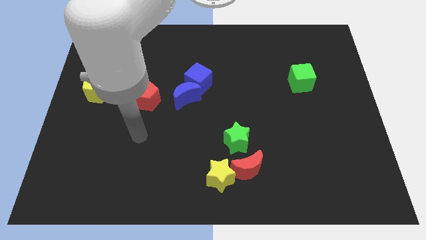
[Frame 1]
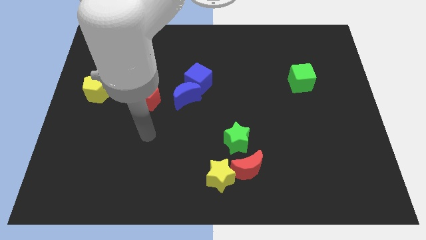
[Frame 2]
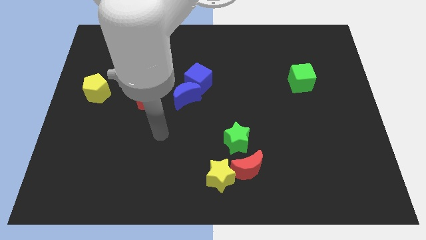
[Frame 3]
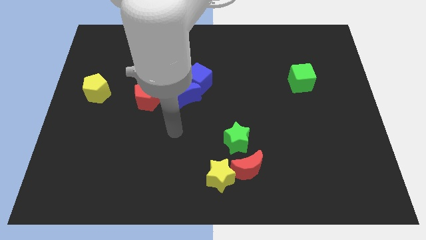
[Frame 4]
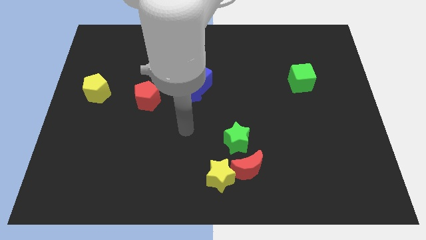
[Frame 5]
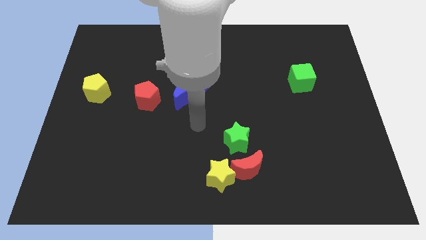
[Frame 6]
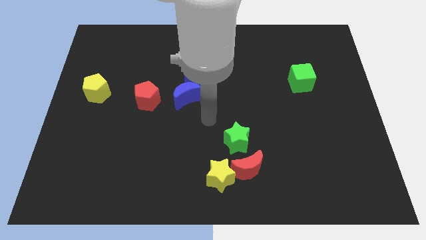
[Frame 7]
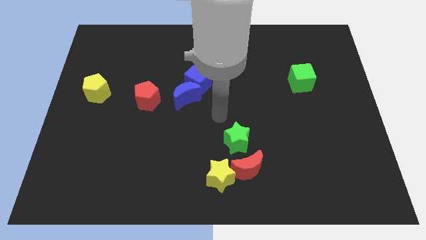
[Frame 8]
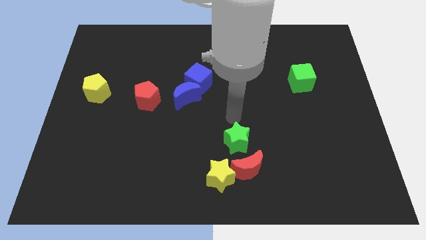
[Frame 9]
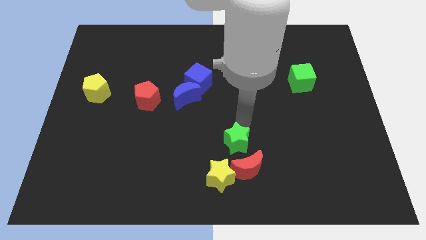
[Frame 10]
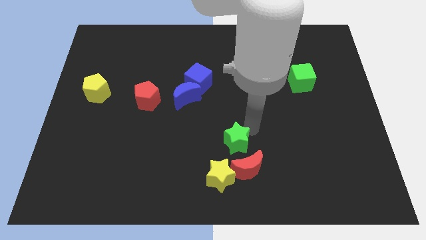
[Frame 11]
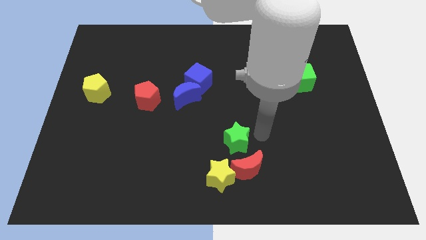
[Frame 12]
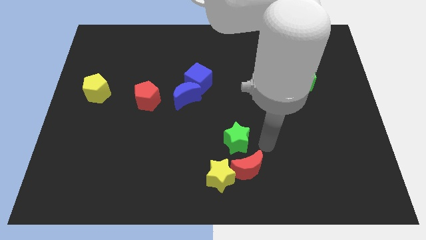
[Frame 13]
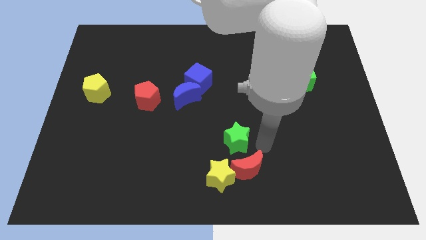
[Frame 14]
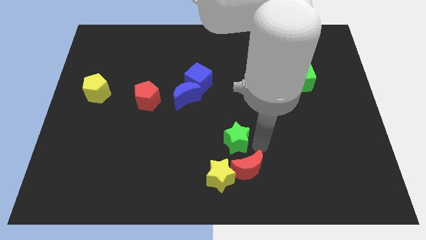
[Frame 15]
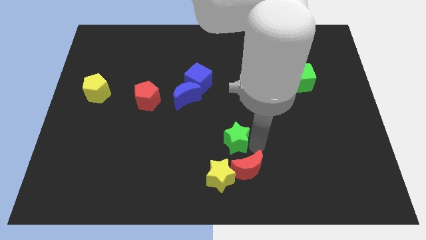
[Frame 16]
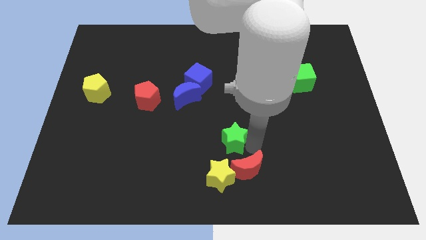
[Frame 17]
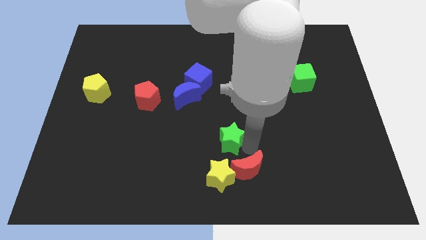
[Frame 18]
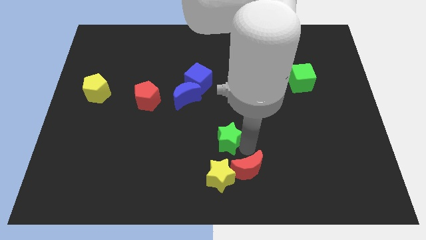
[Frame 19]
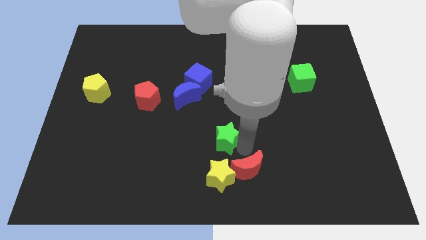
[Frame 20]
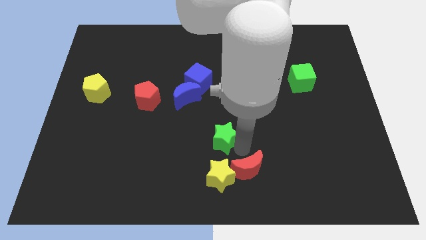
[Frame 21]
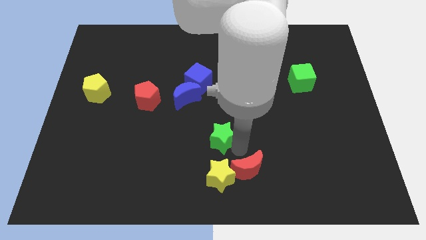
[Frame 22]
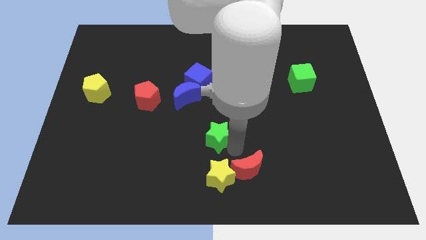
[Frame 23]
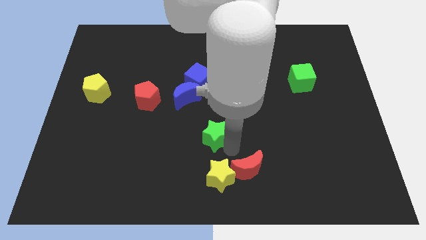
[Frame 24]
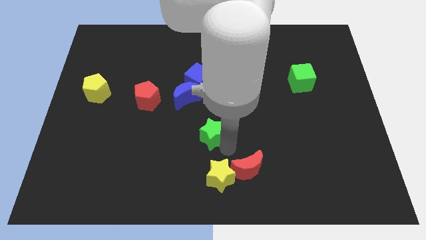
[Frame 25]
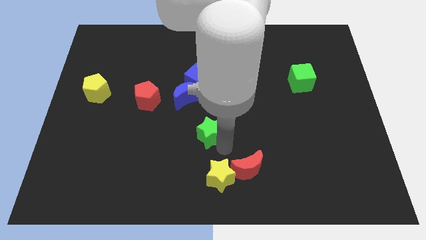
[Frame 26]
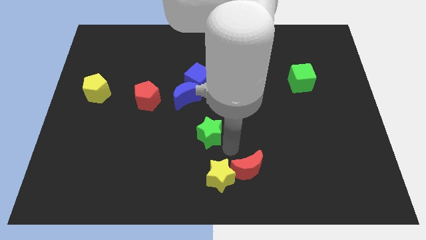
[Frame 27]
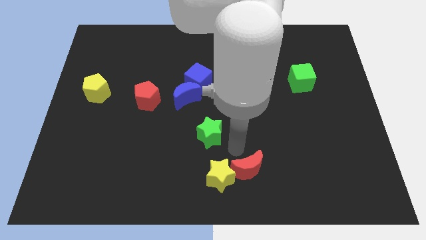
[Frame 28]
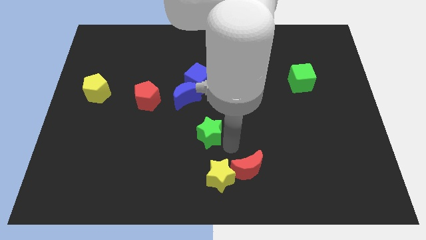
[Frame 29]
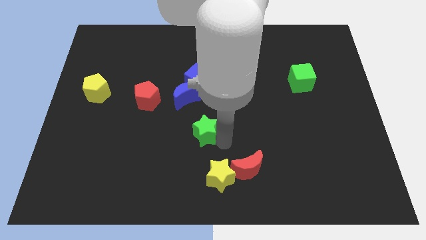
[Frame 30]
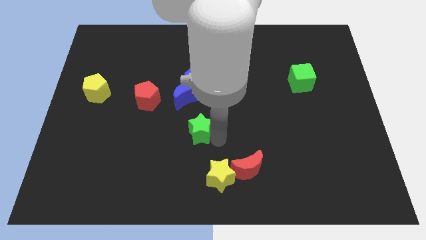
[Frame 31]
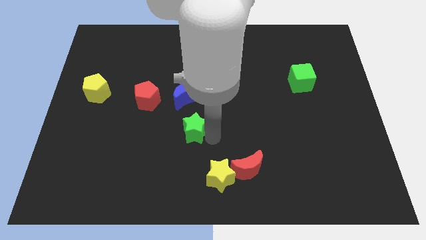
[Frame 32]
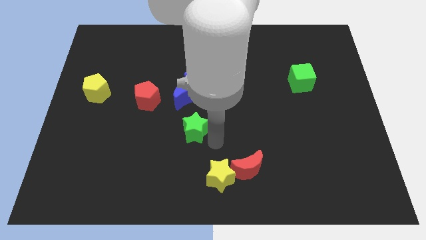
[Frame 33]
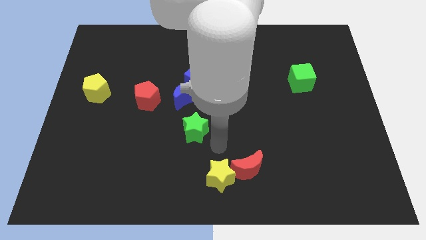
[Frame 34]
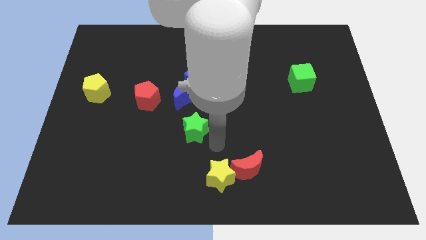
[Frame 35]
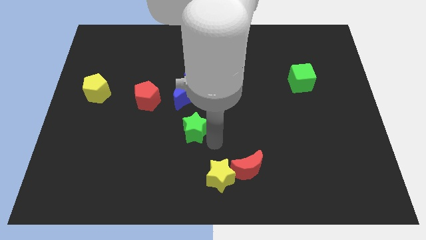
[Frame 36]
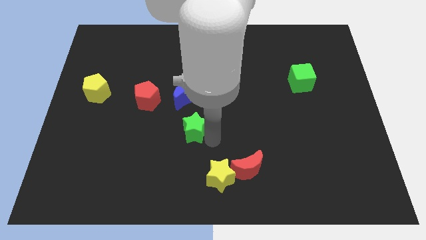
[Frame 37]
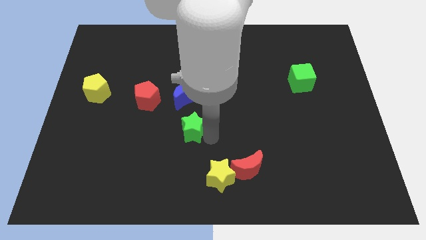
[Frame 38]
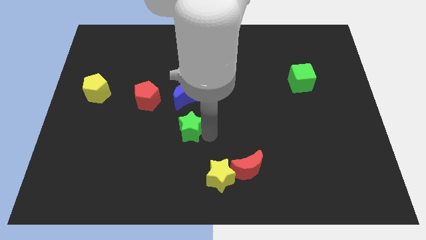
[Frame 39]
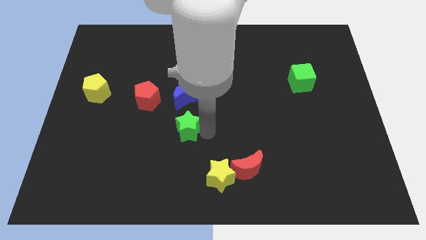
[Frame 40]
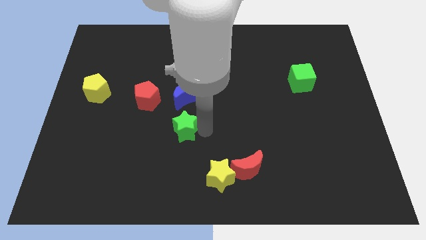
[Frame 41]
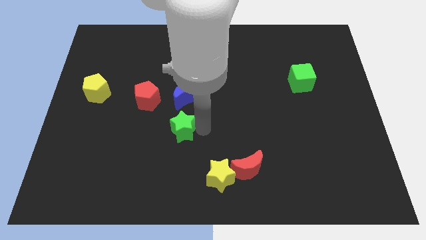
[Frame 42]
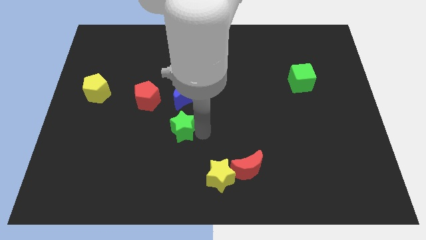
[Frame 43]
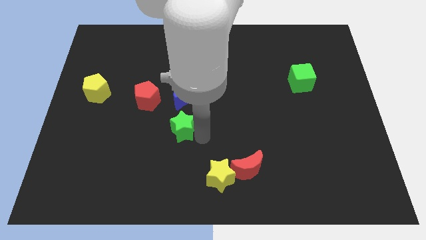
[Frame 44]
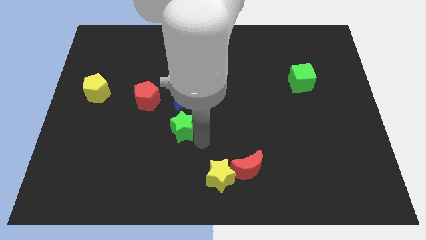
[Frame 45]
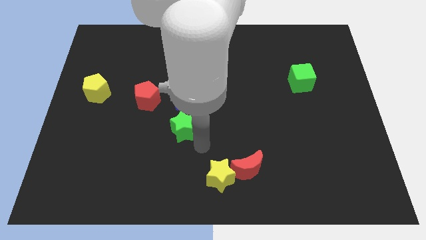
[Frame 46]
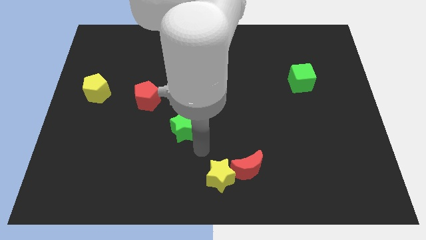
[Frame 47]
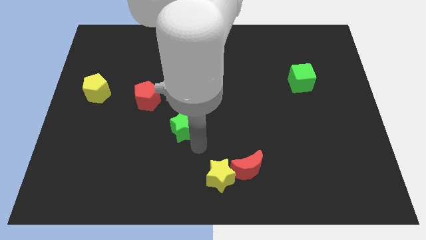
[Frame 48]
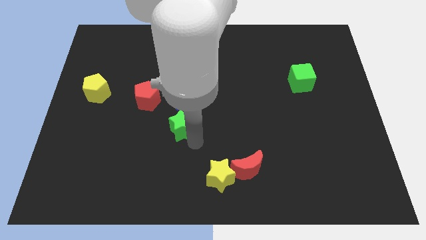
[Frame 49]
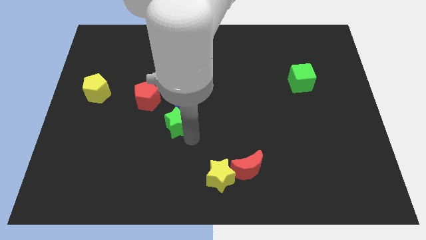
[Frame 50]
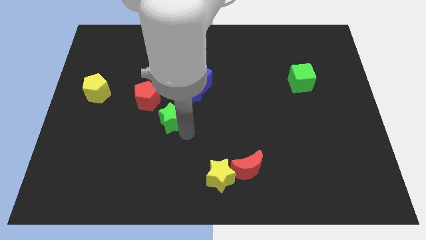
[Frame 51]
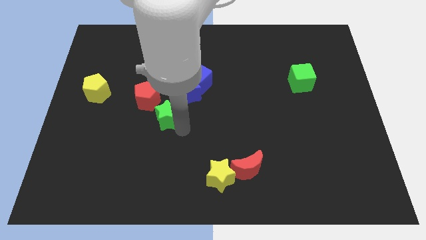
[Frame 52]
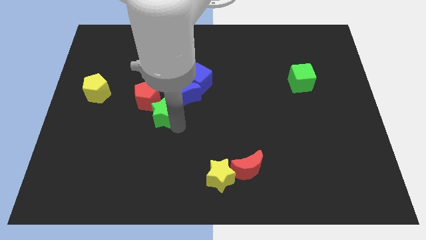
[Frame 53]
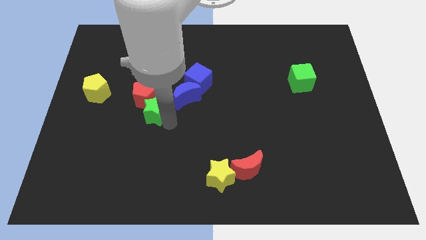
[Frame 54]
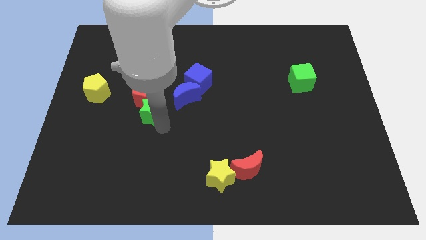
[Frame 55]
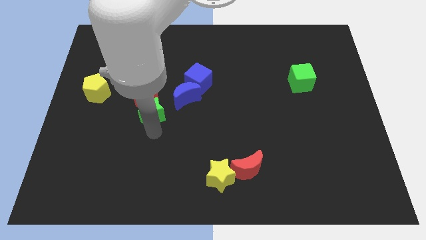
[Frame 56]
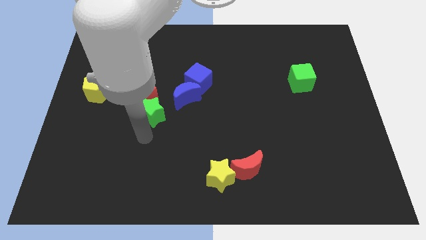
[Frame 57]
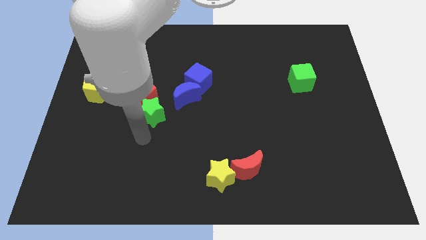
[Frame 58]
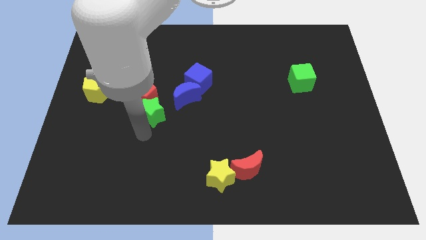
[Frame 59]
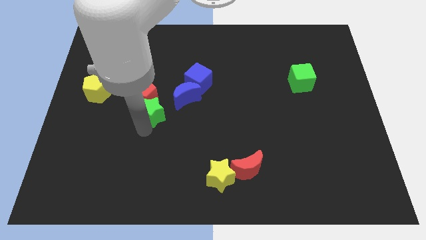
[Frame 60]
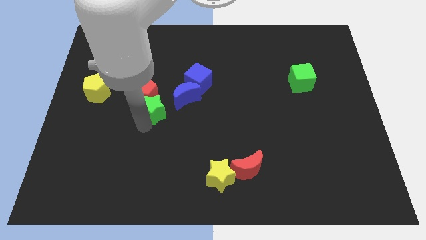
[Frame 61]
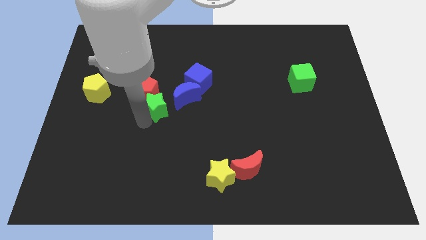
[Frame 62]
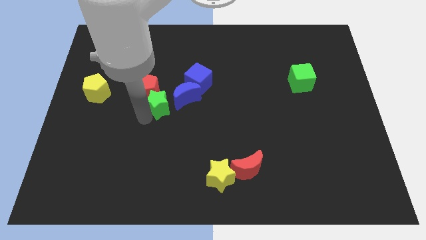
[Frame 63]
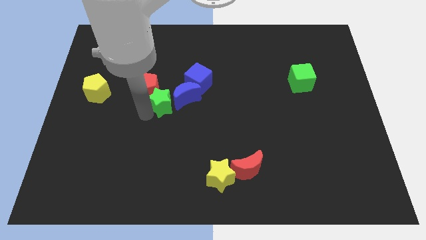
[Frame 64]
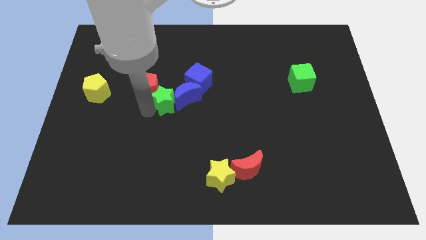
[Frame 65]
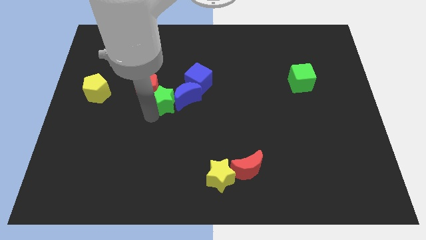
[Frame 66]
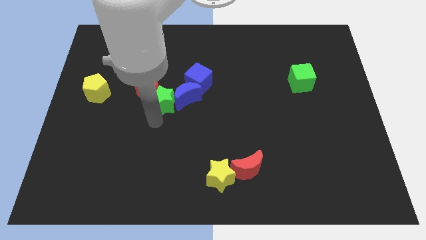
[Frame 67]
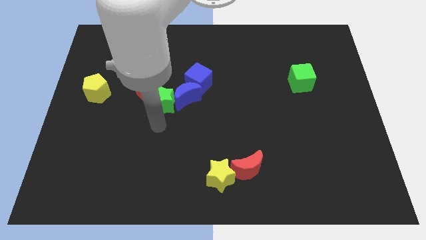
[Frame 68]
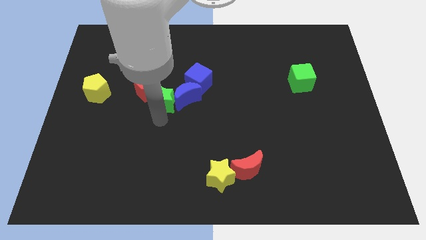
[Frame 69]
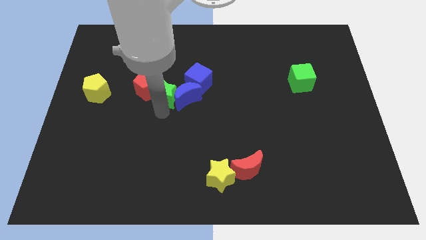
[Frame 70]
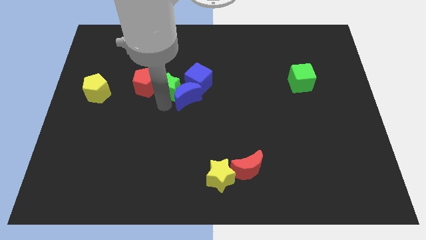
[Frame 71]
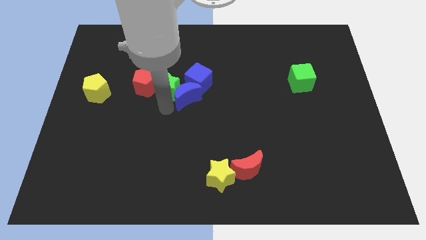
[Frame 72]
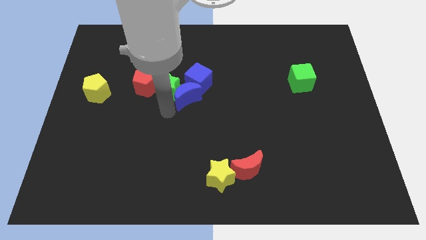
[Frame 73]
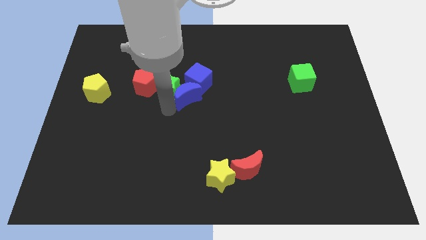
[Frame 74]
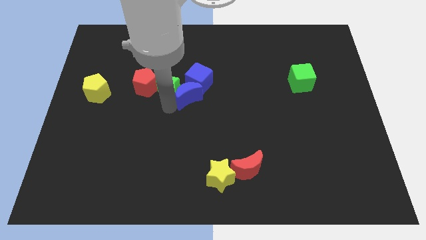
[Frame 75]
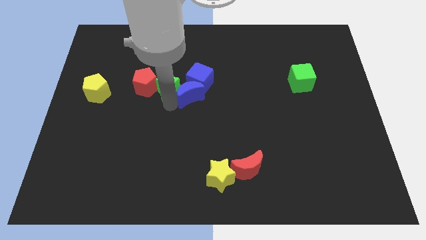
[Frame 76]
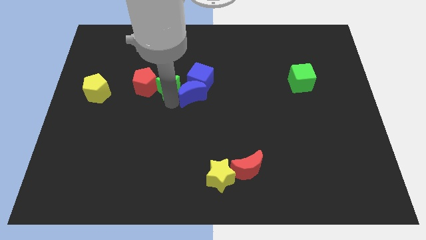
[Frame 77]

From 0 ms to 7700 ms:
slide the green star to the top right of the red pentagon
